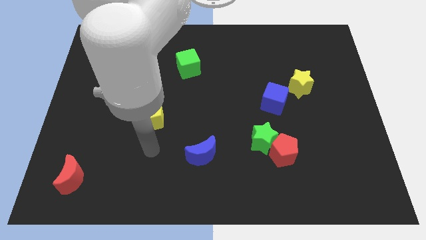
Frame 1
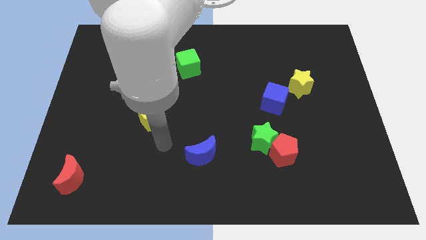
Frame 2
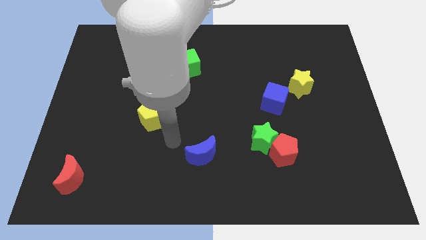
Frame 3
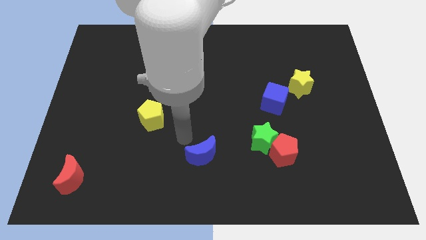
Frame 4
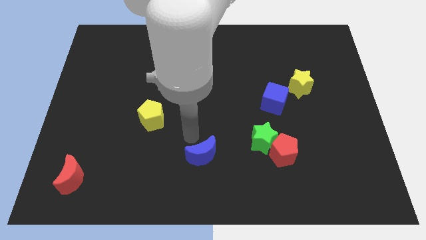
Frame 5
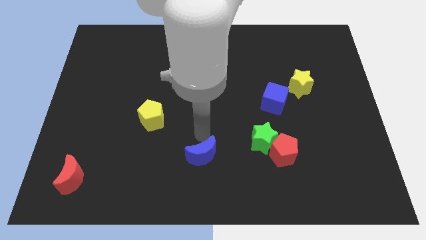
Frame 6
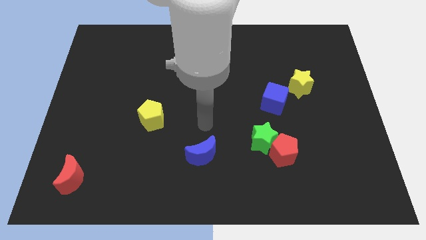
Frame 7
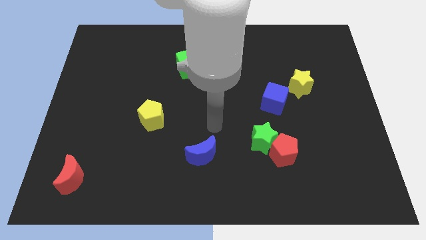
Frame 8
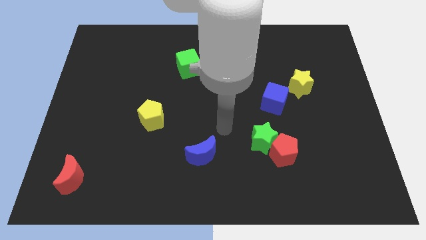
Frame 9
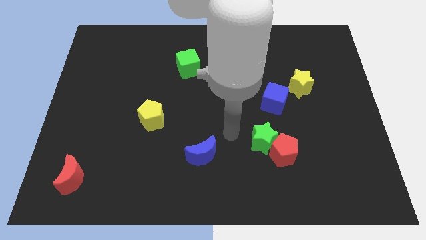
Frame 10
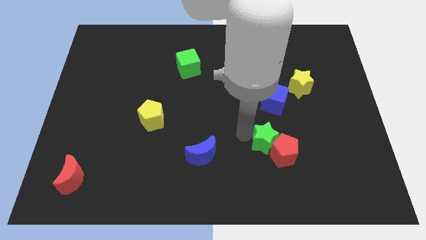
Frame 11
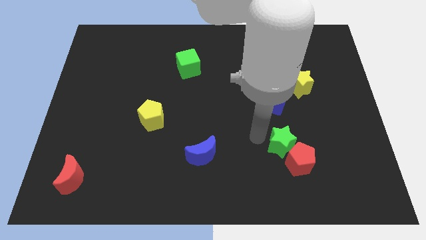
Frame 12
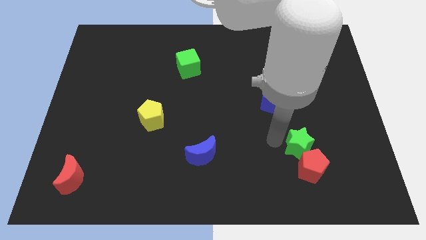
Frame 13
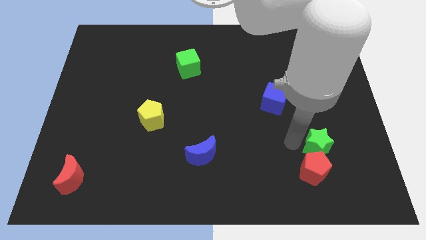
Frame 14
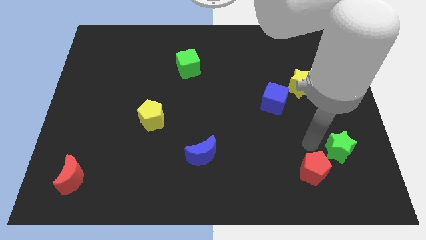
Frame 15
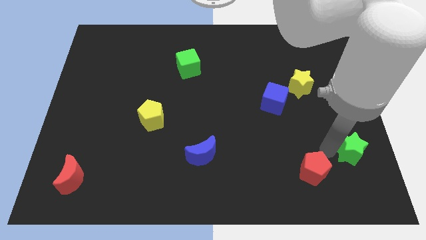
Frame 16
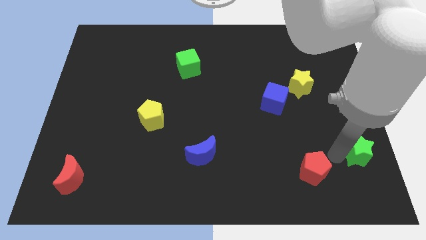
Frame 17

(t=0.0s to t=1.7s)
move the red pentagon away from the green star

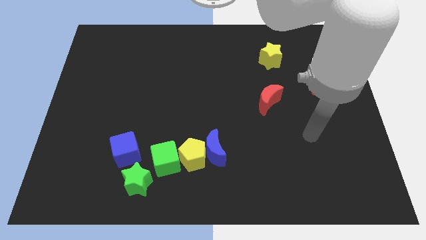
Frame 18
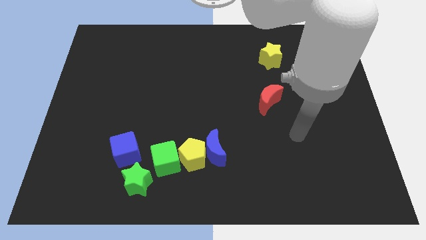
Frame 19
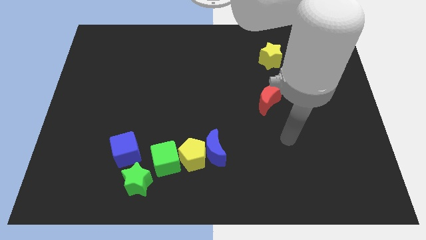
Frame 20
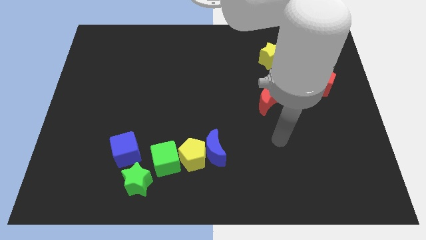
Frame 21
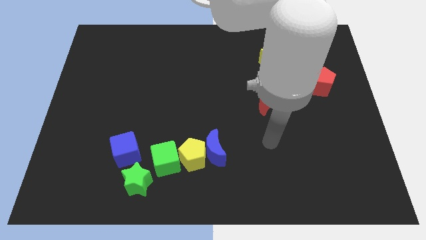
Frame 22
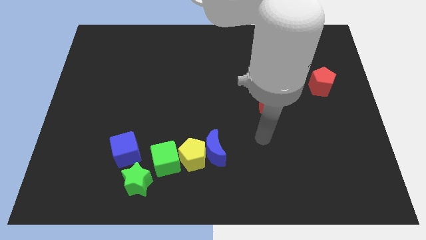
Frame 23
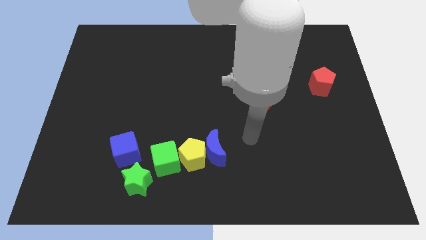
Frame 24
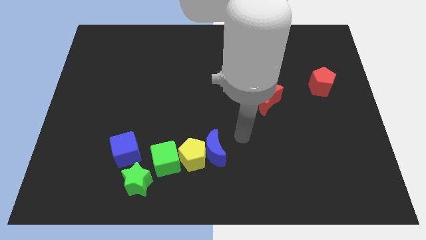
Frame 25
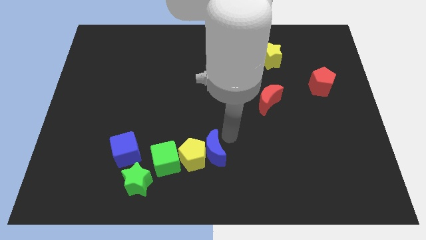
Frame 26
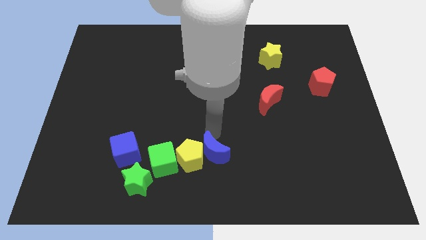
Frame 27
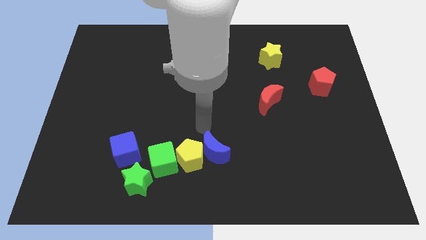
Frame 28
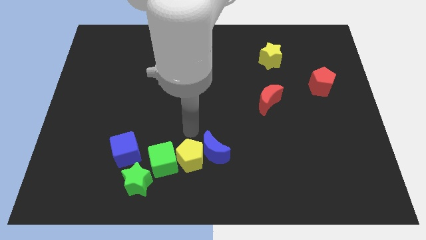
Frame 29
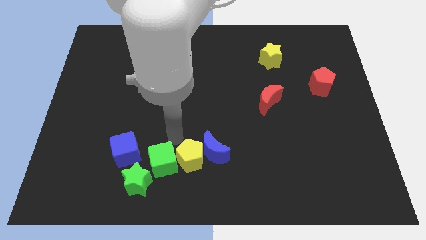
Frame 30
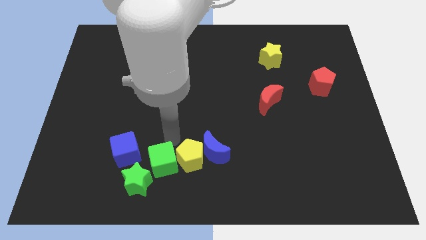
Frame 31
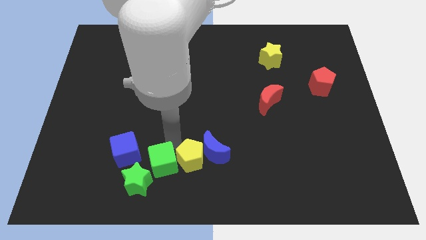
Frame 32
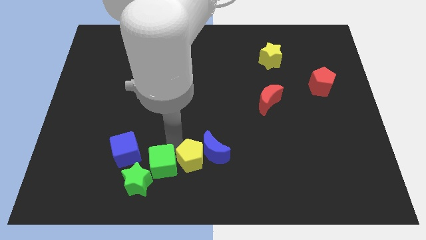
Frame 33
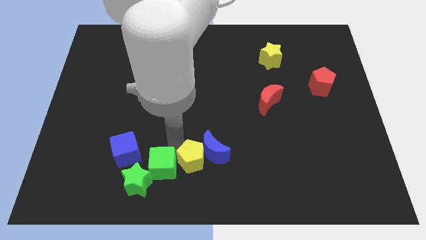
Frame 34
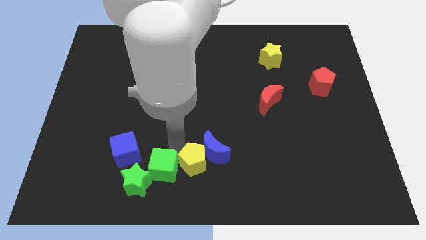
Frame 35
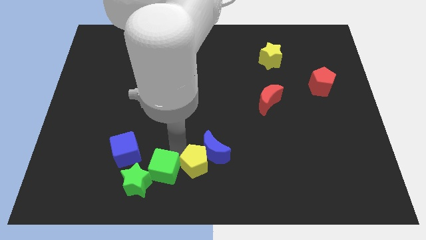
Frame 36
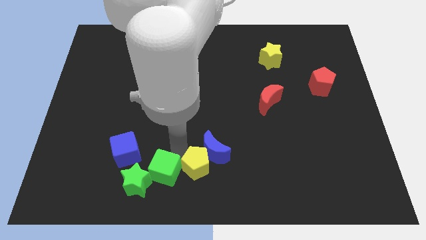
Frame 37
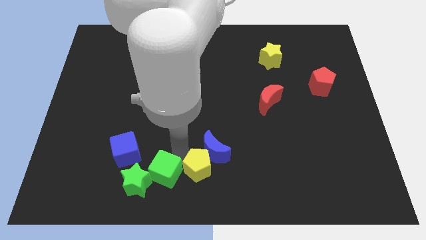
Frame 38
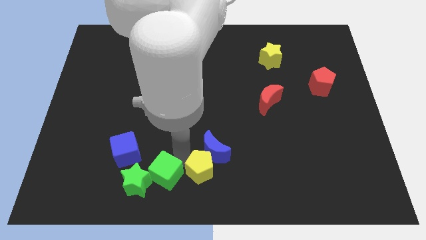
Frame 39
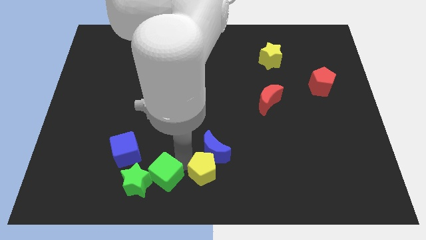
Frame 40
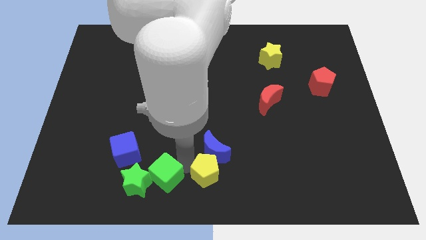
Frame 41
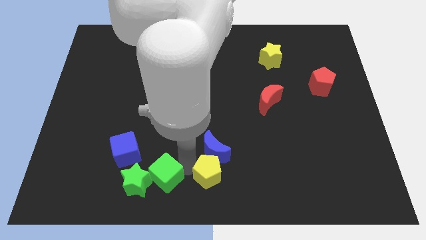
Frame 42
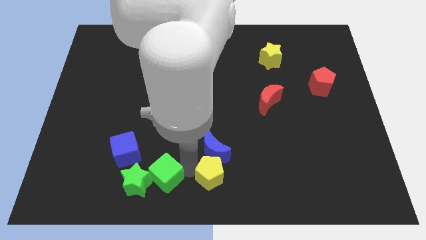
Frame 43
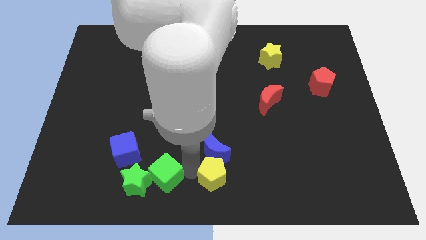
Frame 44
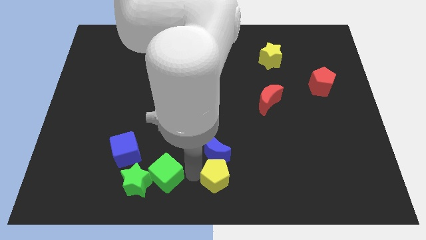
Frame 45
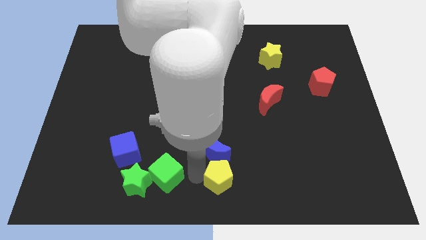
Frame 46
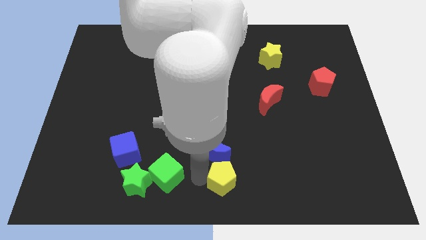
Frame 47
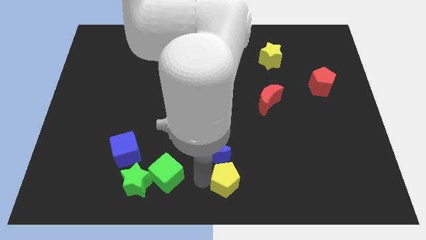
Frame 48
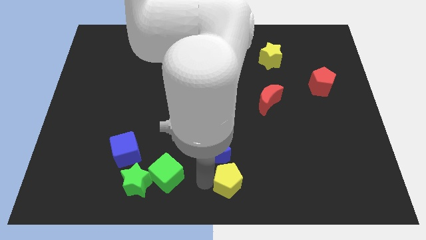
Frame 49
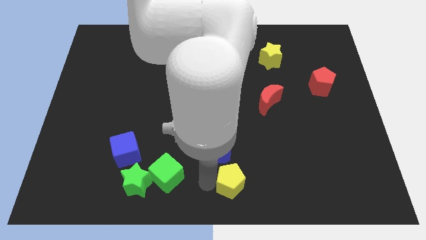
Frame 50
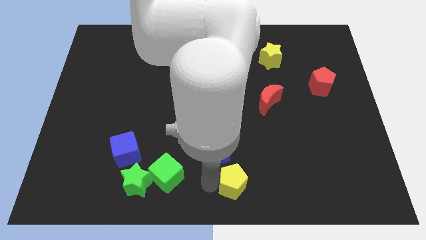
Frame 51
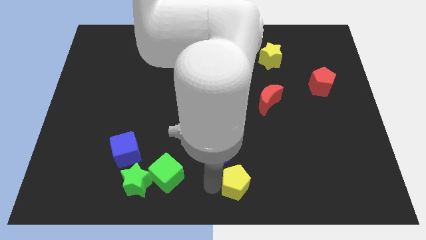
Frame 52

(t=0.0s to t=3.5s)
move the yellow pentagon away from the blue moon and green cube

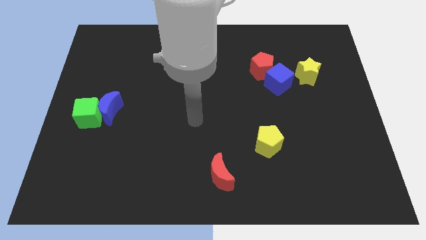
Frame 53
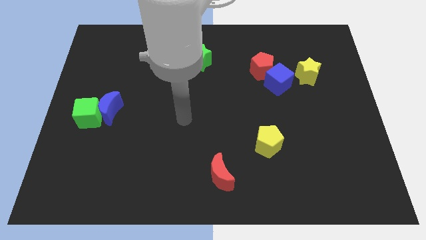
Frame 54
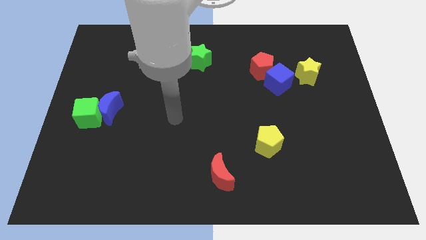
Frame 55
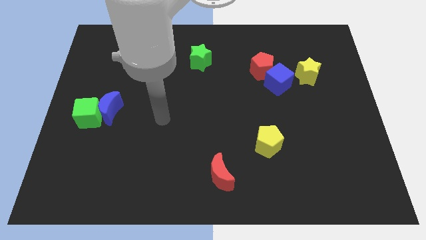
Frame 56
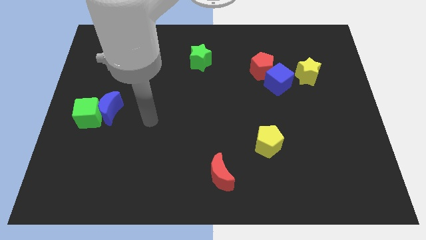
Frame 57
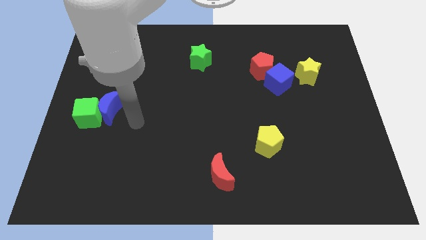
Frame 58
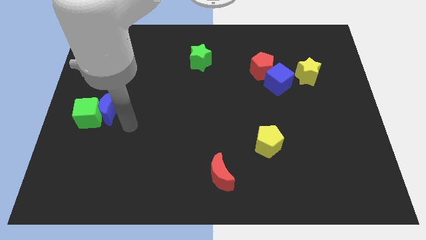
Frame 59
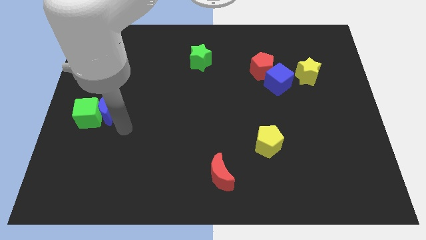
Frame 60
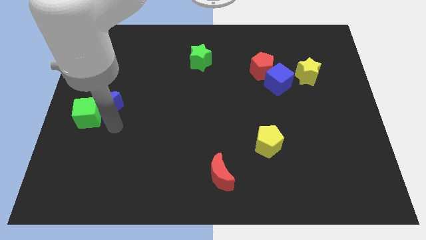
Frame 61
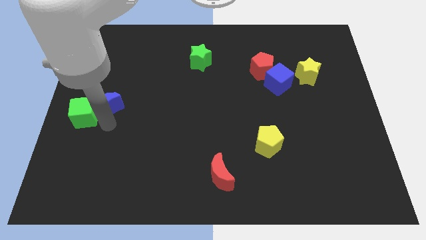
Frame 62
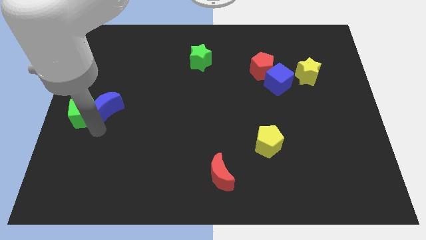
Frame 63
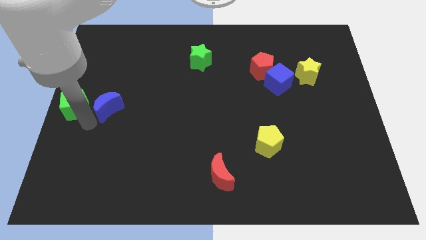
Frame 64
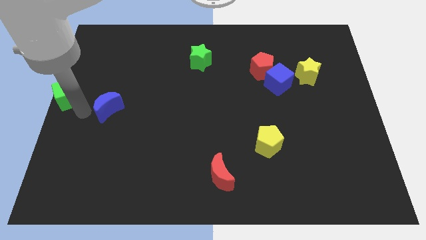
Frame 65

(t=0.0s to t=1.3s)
pull the blue moon apart from the green cube

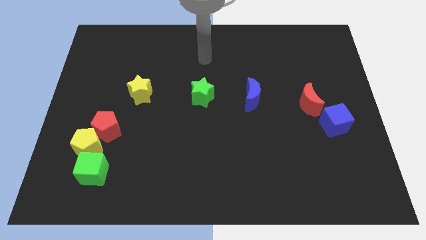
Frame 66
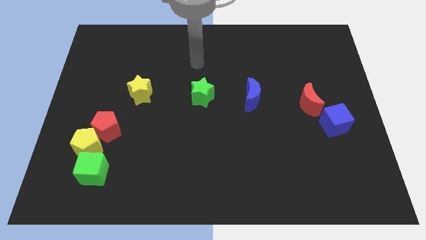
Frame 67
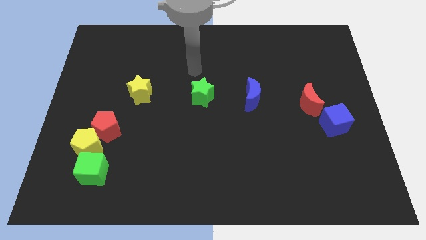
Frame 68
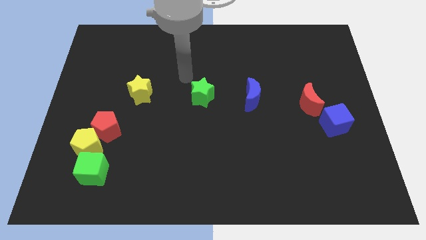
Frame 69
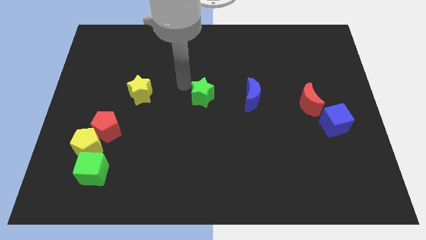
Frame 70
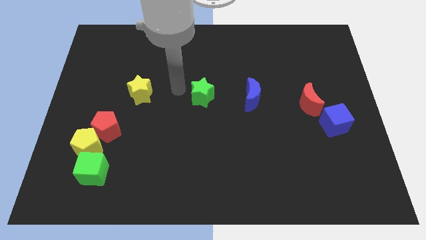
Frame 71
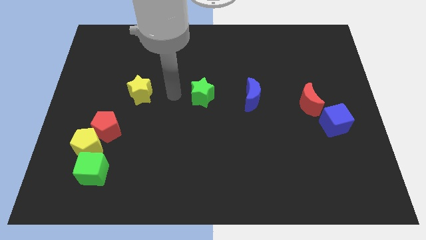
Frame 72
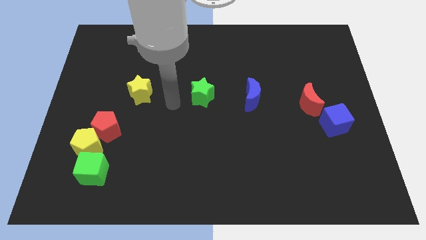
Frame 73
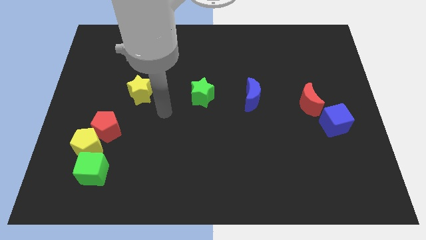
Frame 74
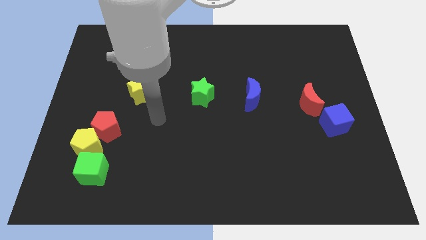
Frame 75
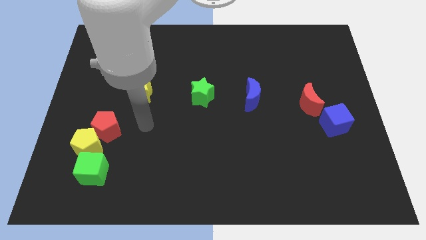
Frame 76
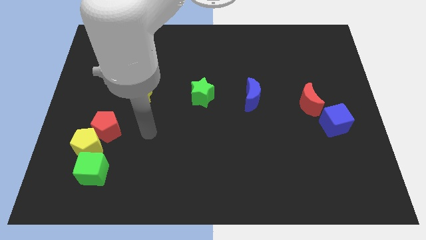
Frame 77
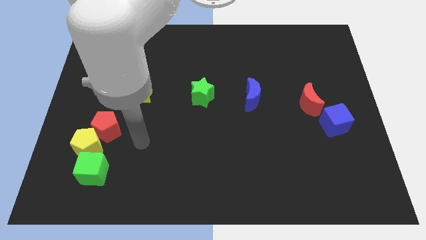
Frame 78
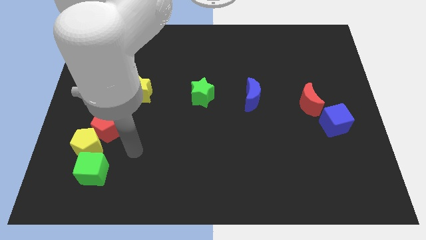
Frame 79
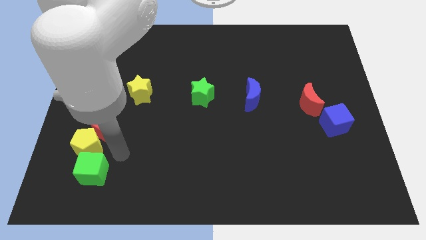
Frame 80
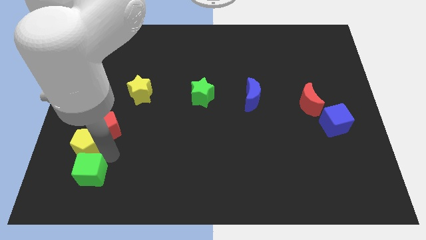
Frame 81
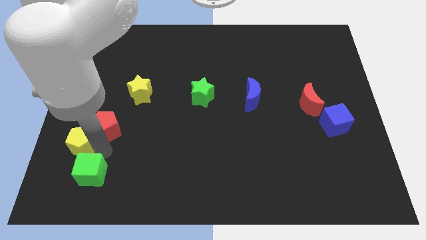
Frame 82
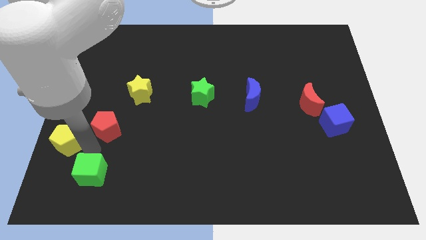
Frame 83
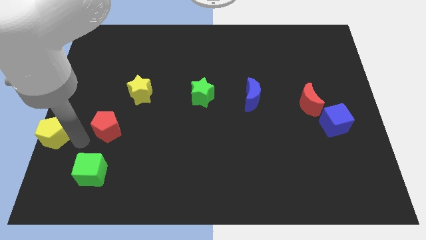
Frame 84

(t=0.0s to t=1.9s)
move the red pentagon away from the yellow pentagon

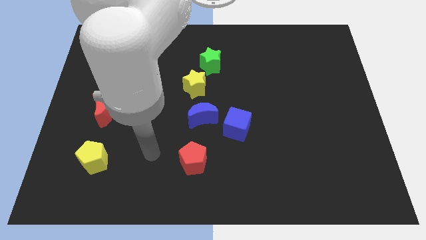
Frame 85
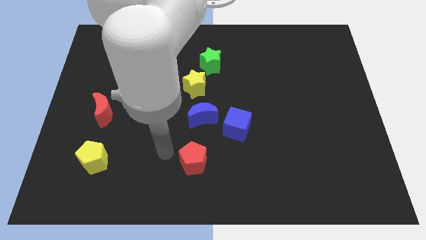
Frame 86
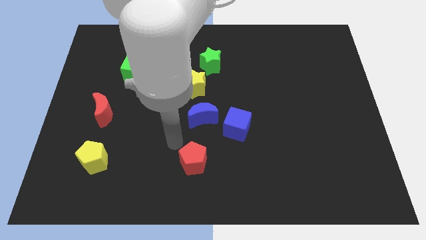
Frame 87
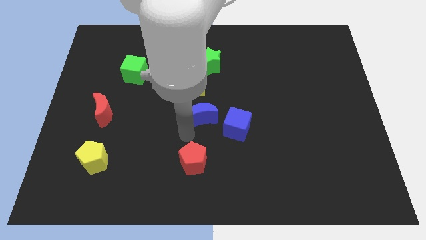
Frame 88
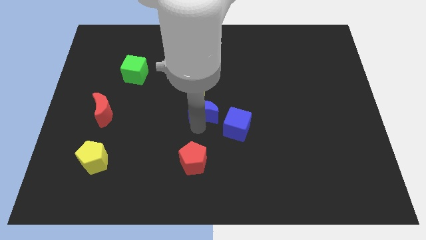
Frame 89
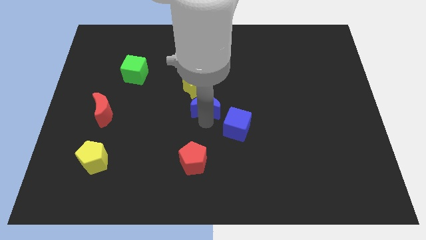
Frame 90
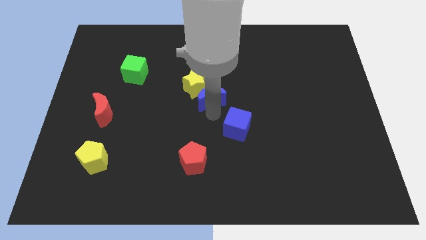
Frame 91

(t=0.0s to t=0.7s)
move the blue cube away from the blue moon

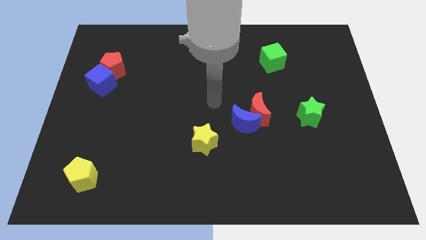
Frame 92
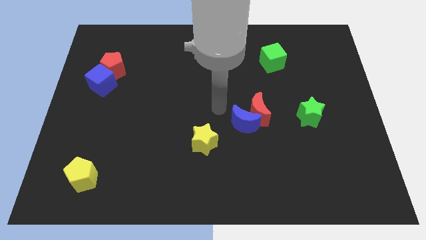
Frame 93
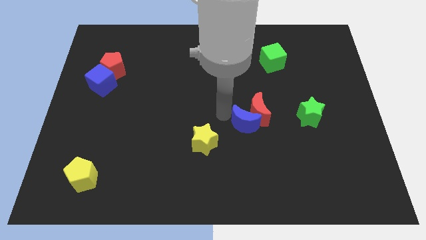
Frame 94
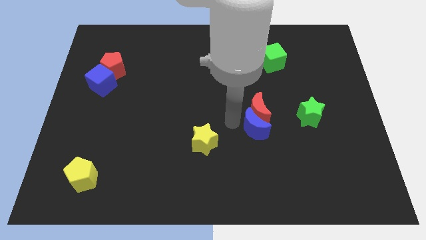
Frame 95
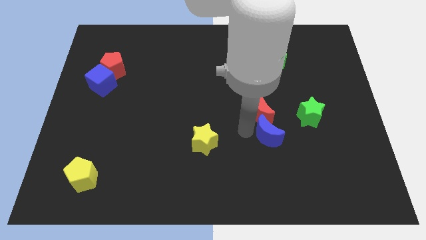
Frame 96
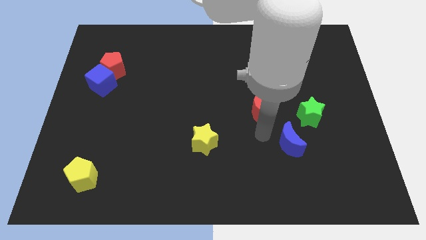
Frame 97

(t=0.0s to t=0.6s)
pull the red moon apart from the blue moon
